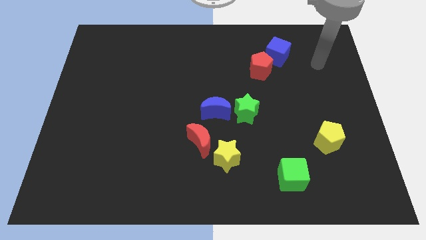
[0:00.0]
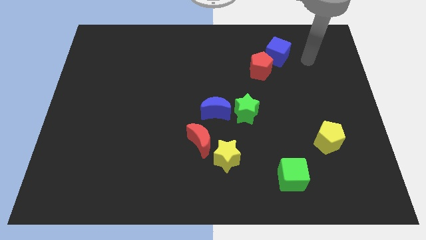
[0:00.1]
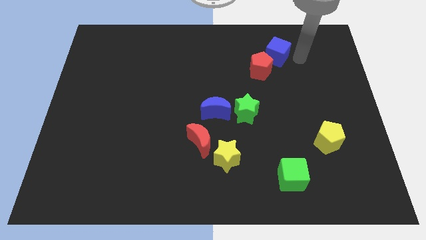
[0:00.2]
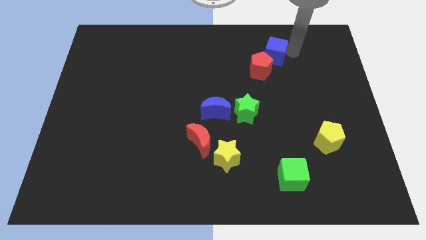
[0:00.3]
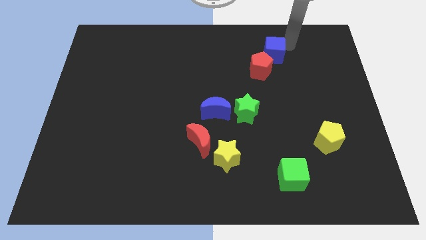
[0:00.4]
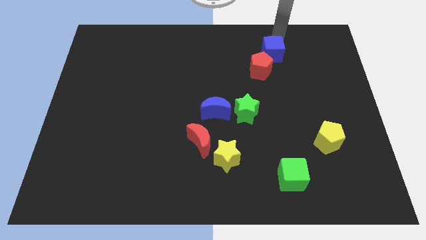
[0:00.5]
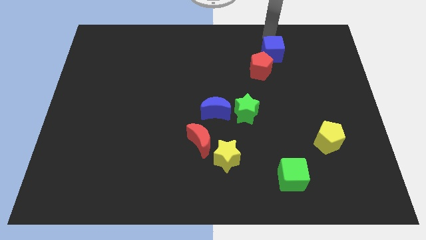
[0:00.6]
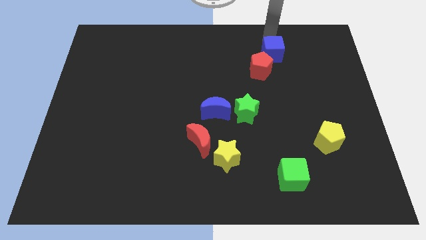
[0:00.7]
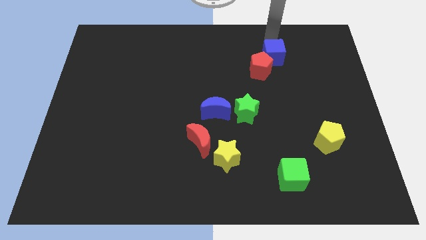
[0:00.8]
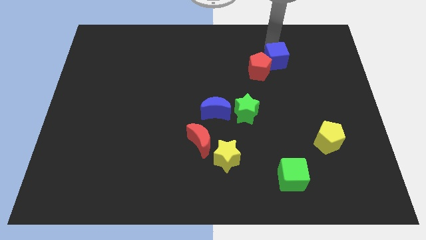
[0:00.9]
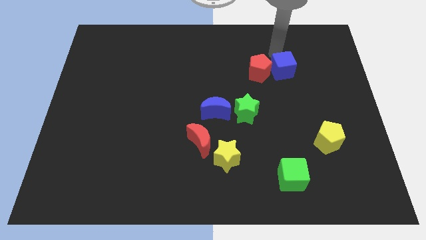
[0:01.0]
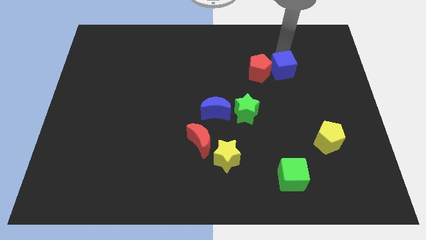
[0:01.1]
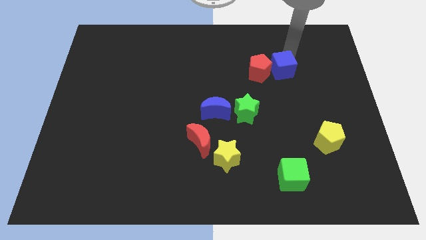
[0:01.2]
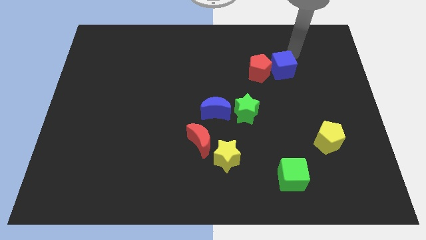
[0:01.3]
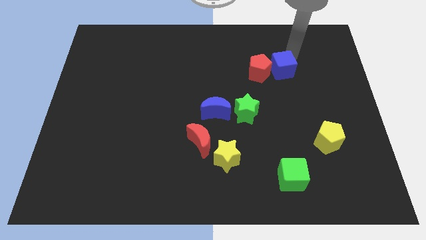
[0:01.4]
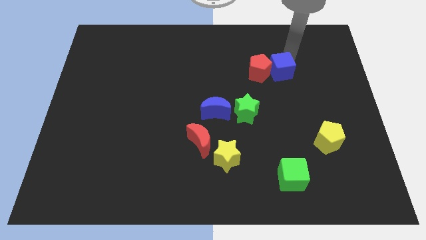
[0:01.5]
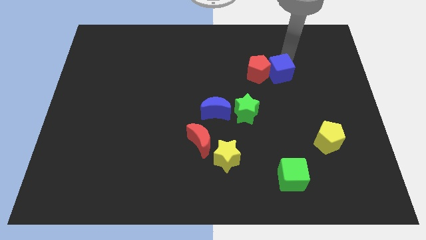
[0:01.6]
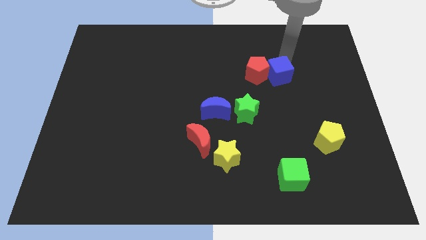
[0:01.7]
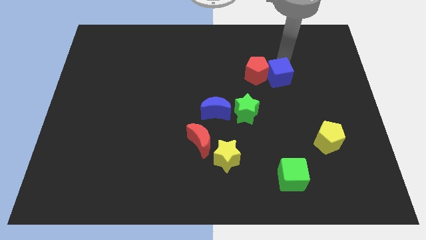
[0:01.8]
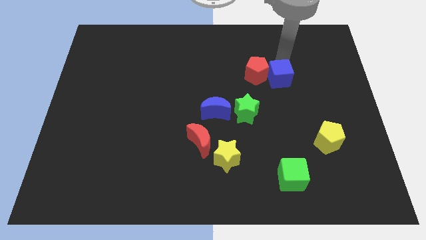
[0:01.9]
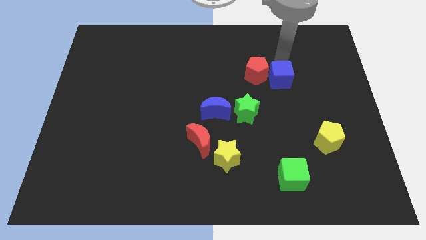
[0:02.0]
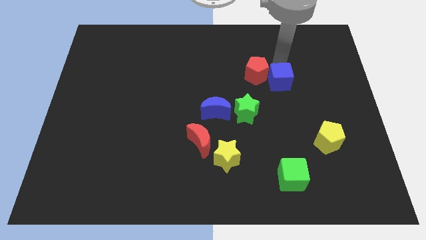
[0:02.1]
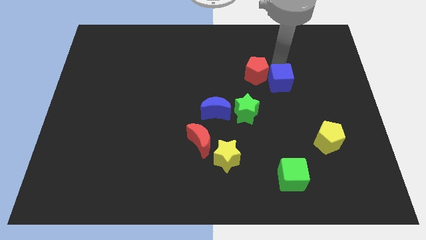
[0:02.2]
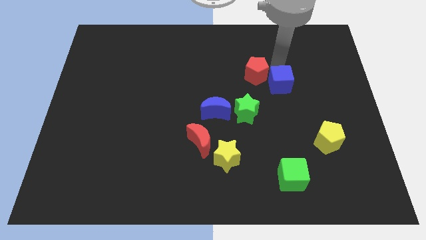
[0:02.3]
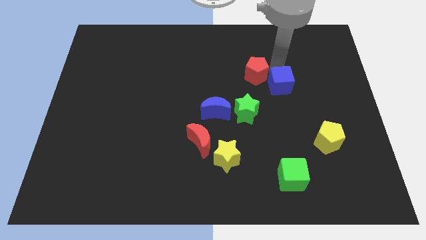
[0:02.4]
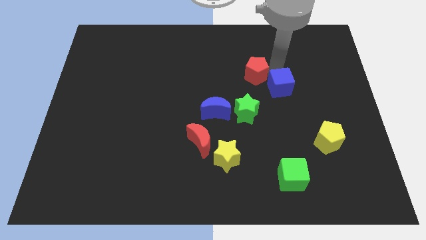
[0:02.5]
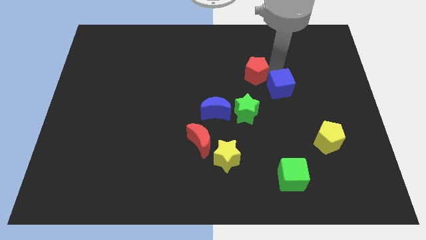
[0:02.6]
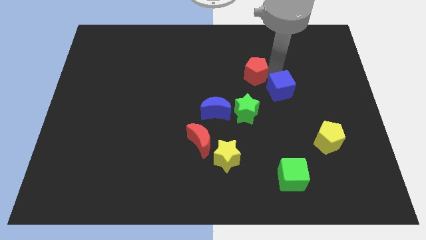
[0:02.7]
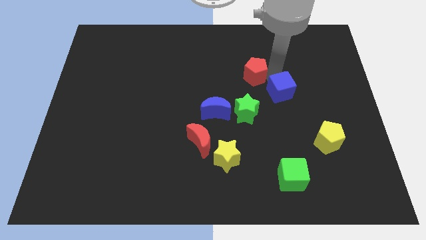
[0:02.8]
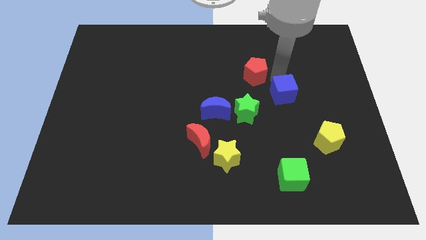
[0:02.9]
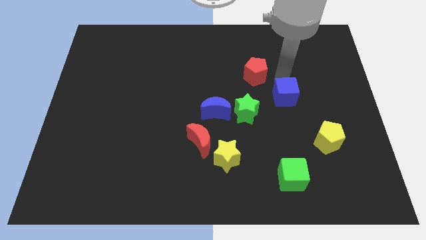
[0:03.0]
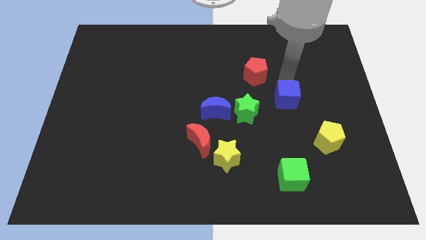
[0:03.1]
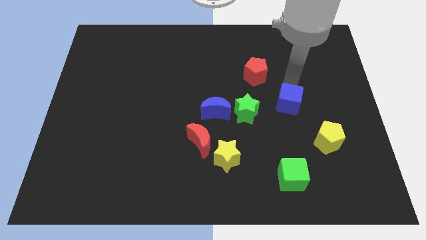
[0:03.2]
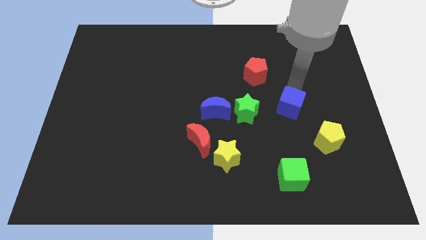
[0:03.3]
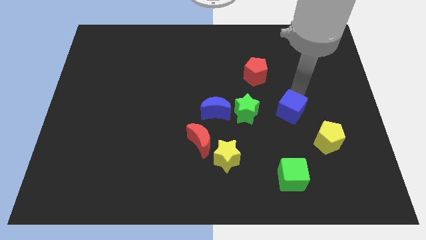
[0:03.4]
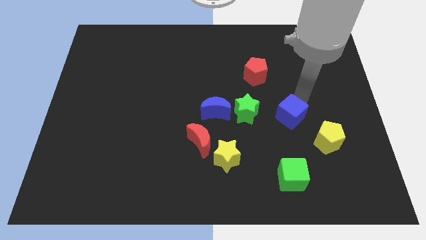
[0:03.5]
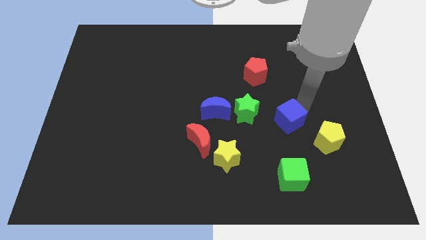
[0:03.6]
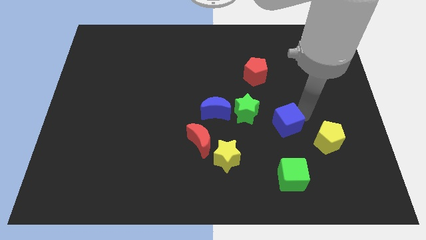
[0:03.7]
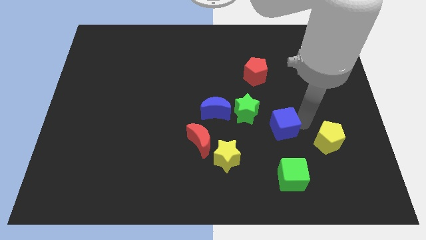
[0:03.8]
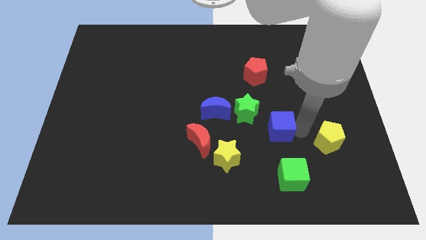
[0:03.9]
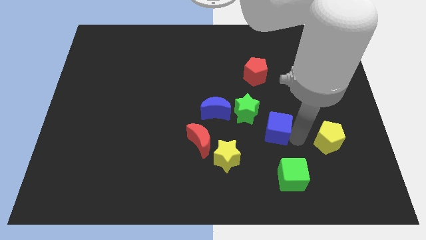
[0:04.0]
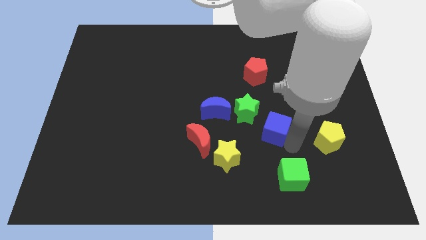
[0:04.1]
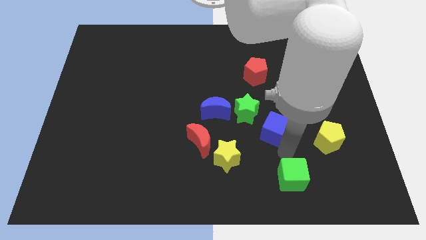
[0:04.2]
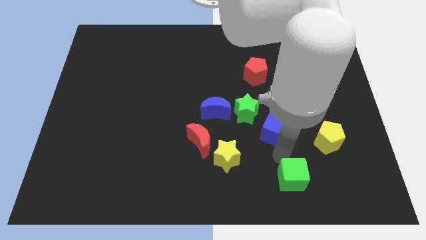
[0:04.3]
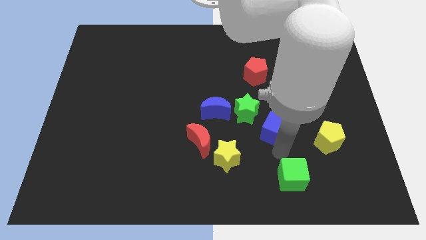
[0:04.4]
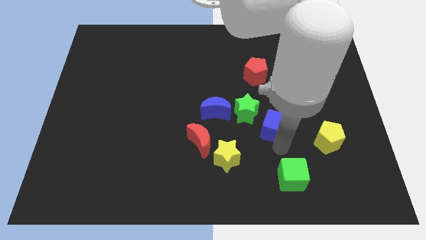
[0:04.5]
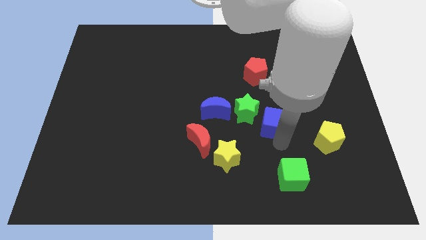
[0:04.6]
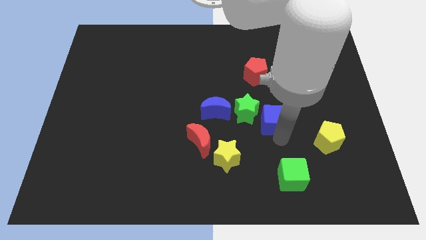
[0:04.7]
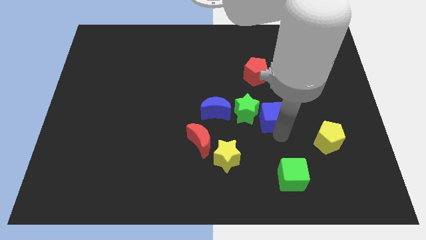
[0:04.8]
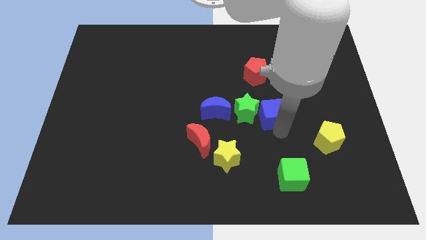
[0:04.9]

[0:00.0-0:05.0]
push the blue cube close to the green star

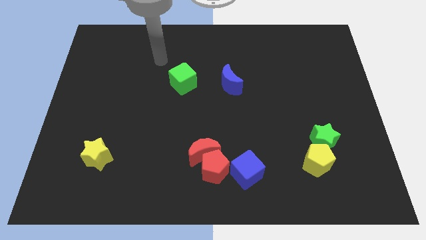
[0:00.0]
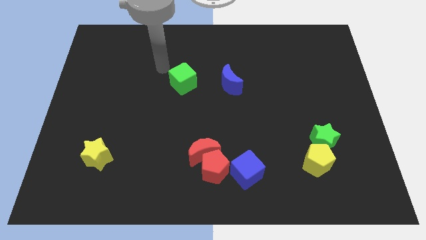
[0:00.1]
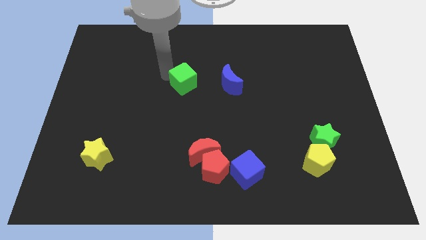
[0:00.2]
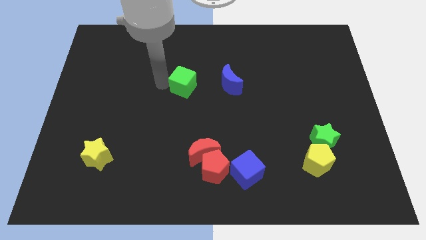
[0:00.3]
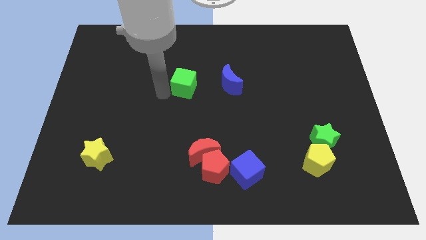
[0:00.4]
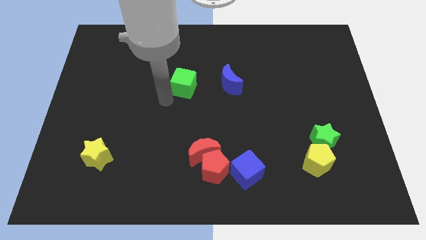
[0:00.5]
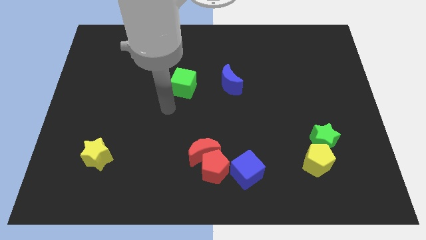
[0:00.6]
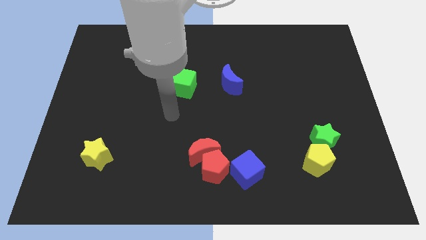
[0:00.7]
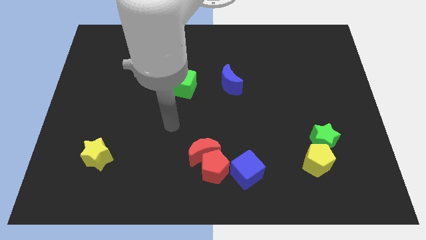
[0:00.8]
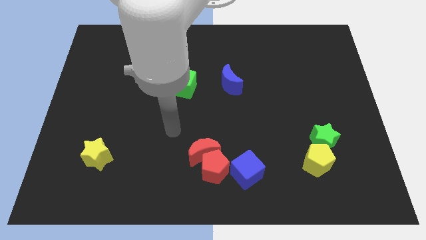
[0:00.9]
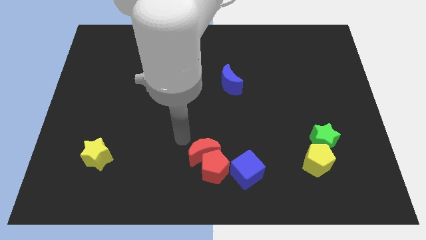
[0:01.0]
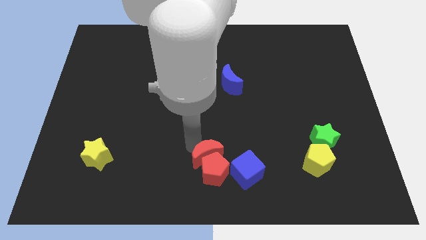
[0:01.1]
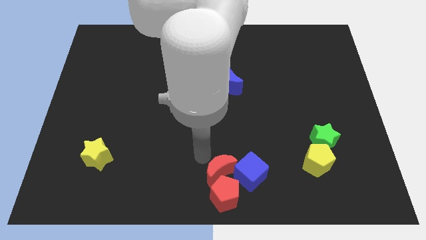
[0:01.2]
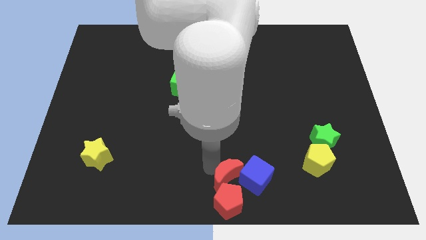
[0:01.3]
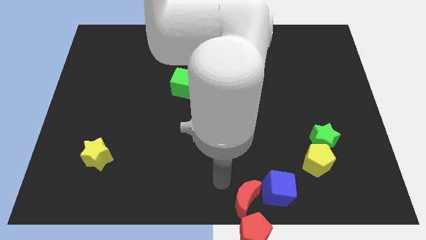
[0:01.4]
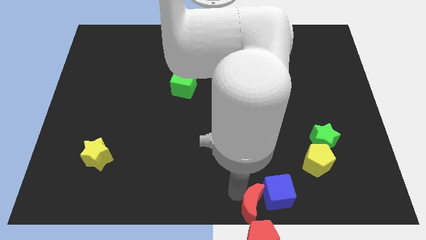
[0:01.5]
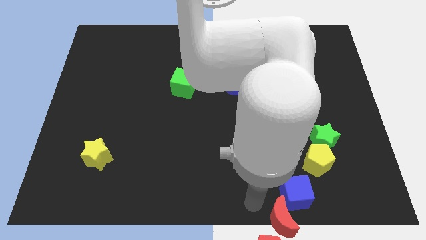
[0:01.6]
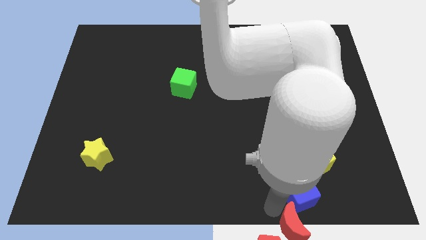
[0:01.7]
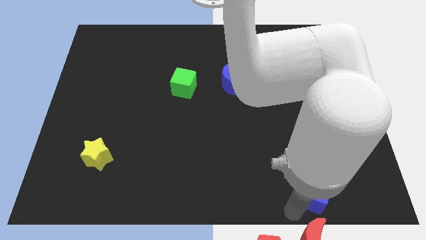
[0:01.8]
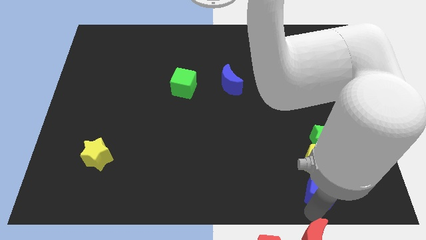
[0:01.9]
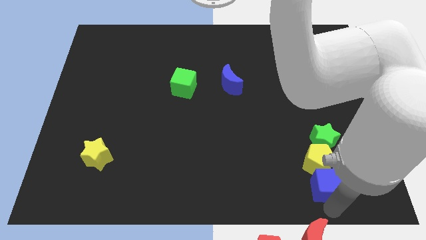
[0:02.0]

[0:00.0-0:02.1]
slide the blue cube next to the yellow pentagon

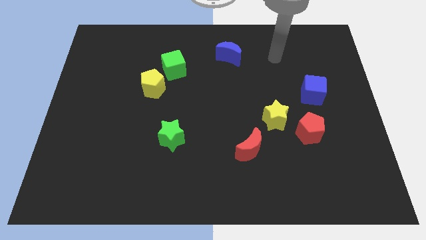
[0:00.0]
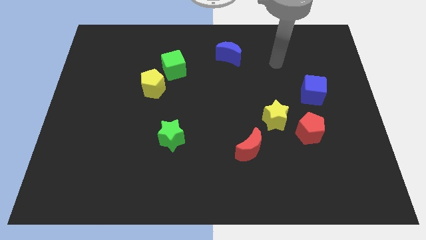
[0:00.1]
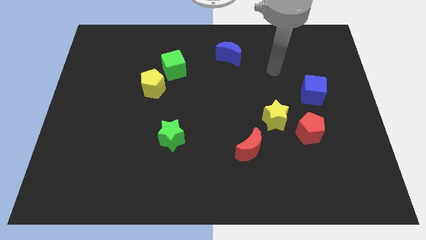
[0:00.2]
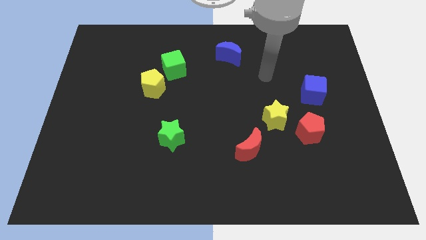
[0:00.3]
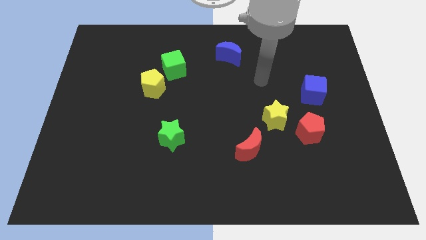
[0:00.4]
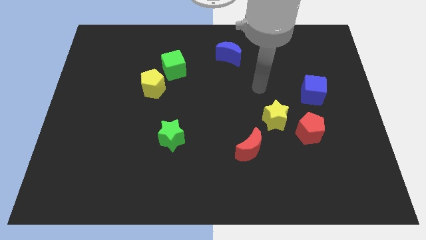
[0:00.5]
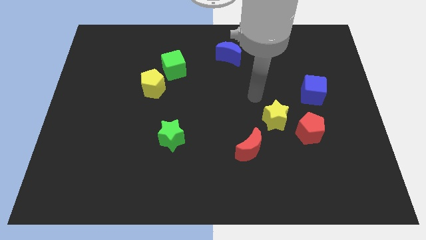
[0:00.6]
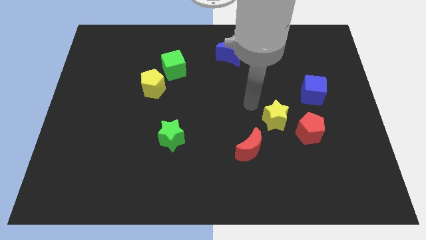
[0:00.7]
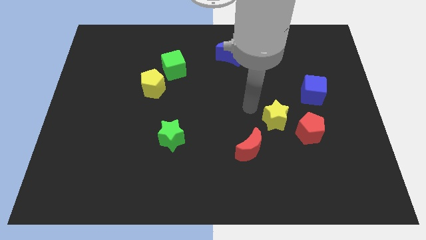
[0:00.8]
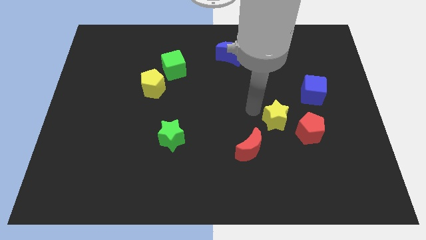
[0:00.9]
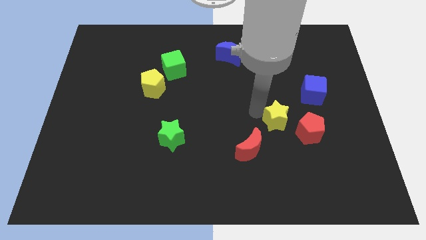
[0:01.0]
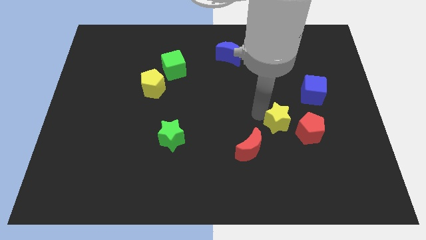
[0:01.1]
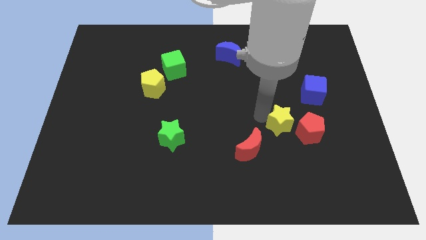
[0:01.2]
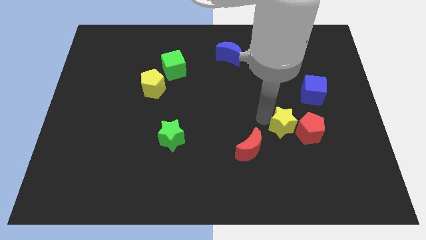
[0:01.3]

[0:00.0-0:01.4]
move the yellow star to the red pentagon
